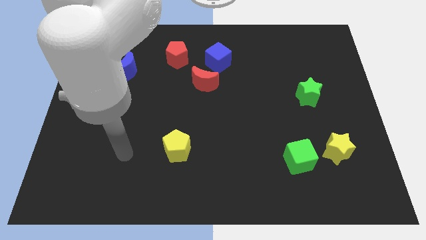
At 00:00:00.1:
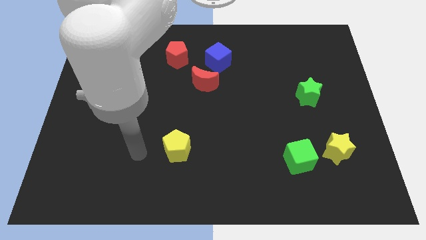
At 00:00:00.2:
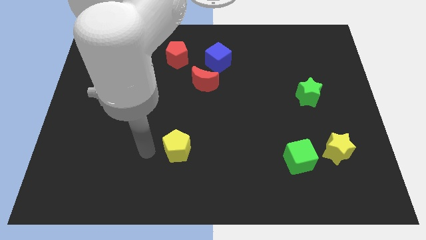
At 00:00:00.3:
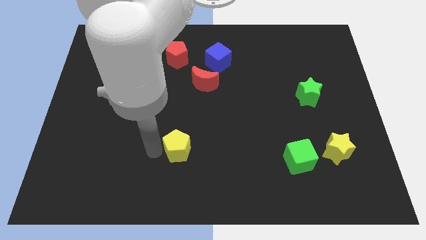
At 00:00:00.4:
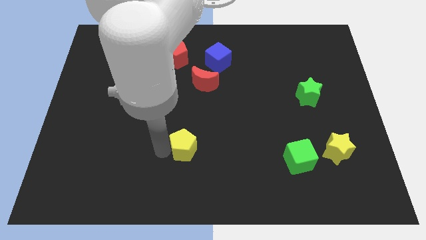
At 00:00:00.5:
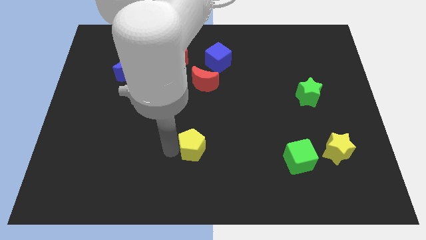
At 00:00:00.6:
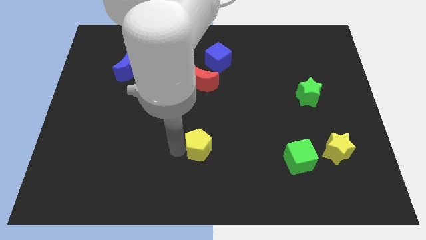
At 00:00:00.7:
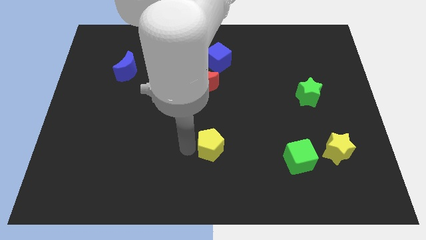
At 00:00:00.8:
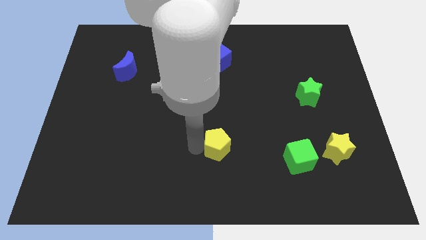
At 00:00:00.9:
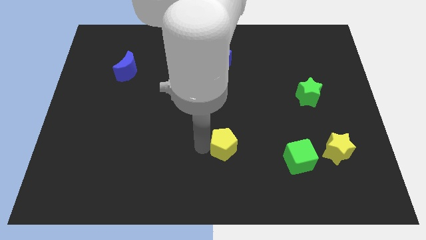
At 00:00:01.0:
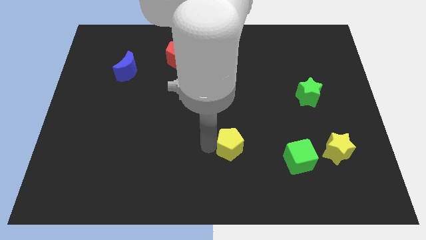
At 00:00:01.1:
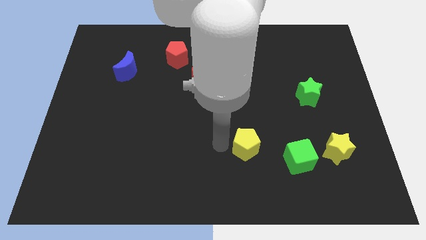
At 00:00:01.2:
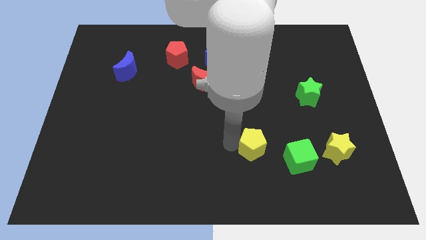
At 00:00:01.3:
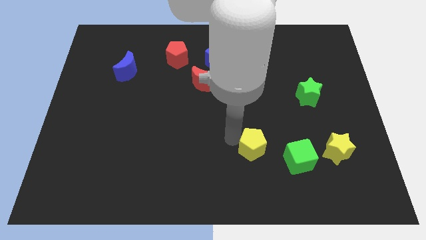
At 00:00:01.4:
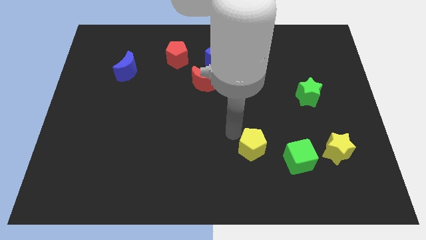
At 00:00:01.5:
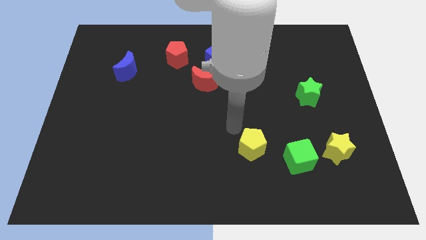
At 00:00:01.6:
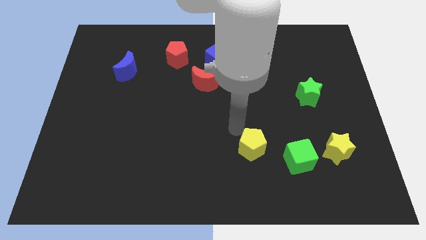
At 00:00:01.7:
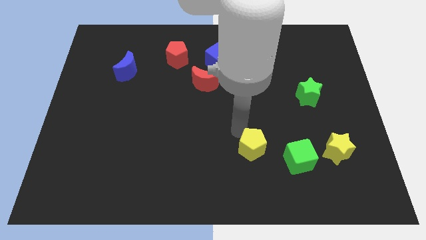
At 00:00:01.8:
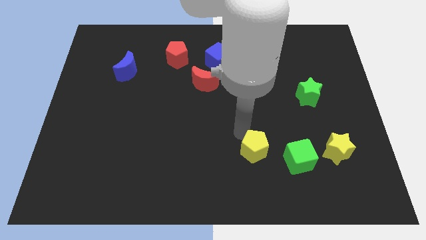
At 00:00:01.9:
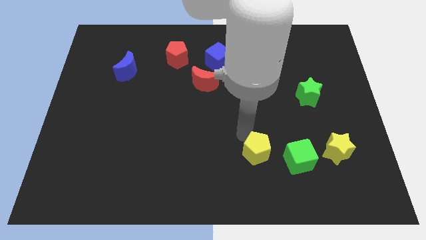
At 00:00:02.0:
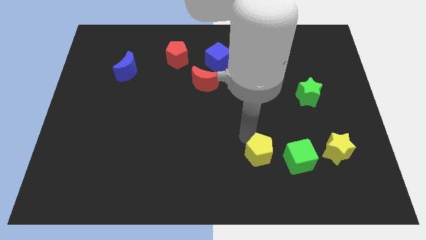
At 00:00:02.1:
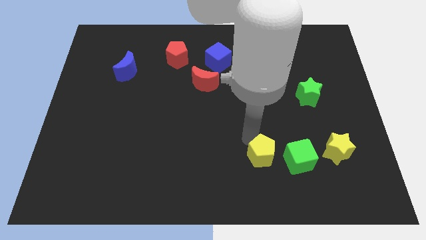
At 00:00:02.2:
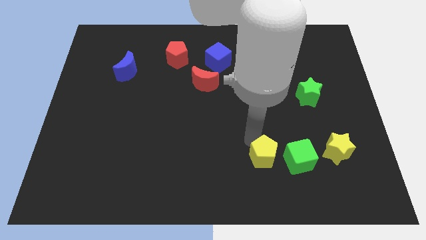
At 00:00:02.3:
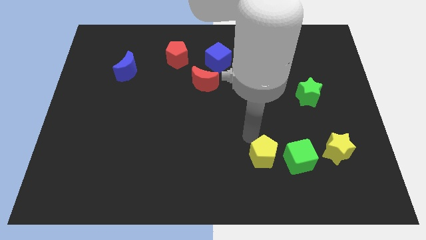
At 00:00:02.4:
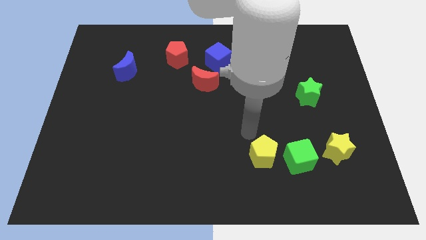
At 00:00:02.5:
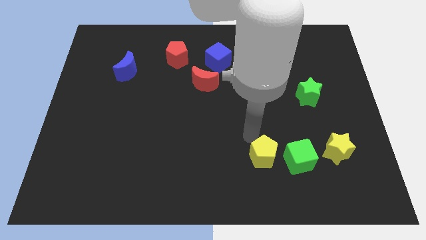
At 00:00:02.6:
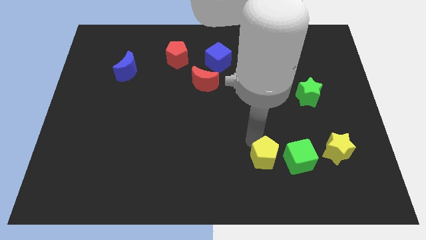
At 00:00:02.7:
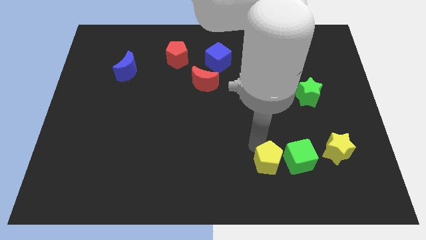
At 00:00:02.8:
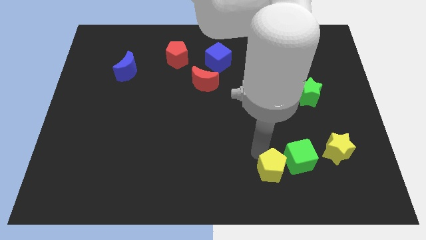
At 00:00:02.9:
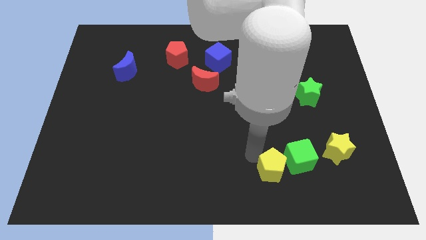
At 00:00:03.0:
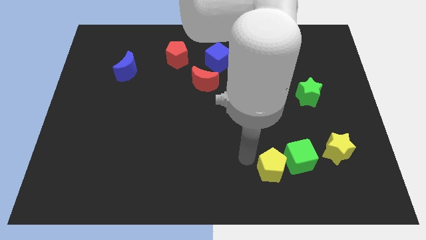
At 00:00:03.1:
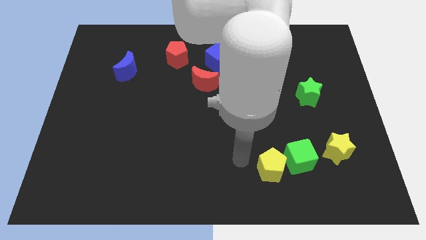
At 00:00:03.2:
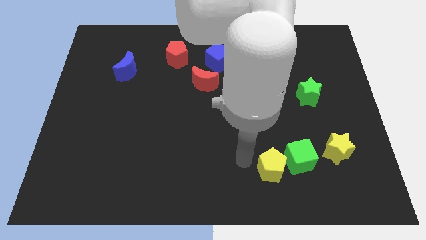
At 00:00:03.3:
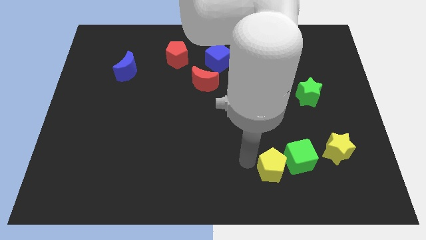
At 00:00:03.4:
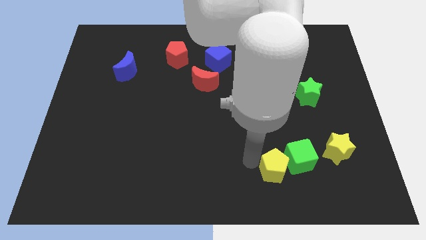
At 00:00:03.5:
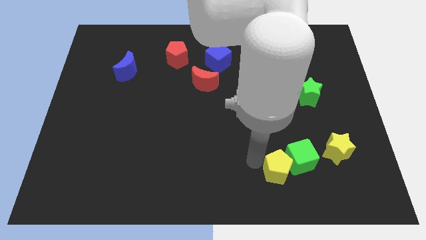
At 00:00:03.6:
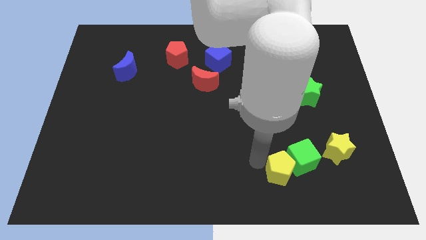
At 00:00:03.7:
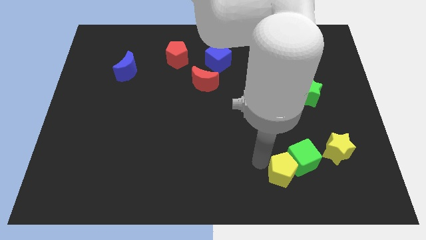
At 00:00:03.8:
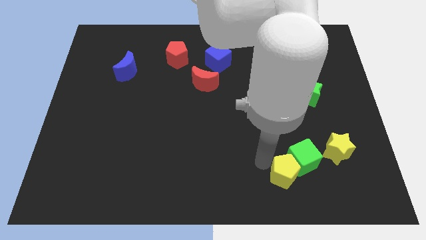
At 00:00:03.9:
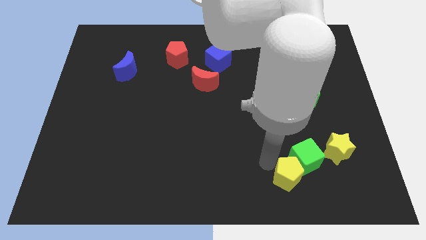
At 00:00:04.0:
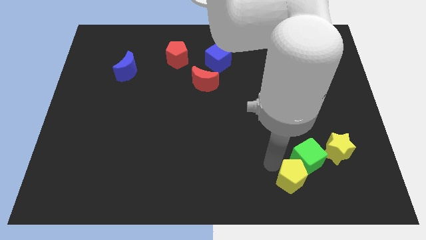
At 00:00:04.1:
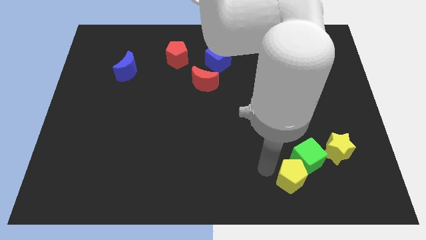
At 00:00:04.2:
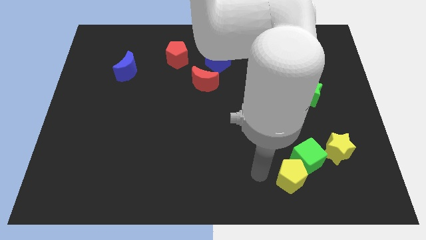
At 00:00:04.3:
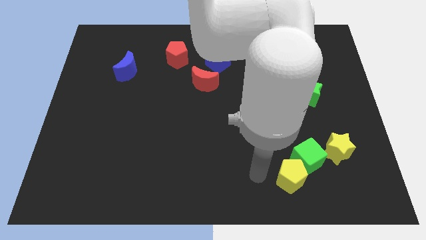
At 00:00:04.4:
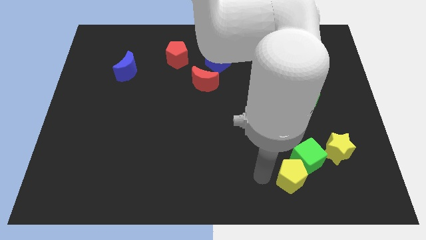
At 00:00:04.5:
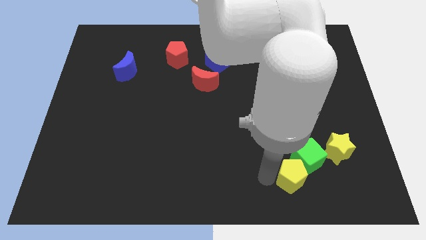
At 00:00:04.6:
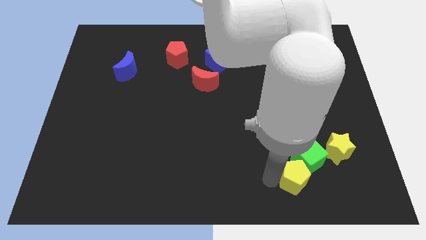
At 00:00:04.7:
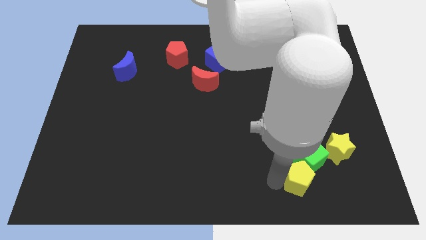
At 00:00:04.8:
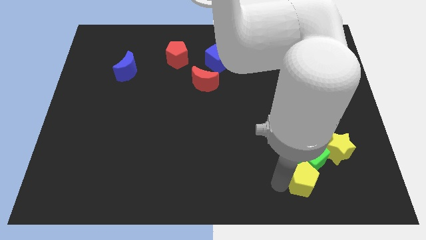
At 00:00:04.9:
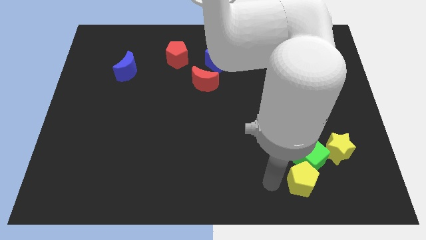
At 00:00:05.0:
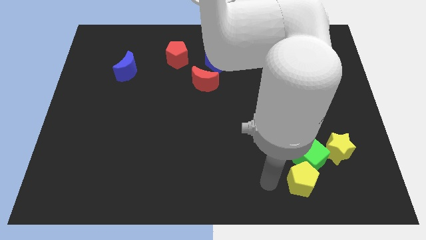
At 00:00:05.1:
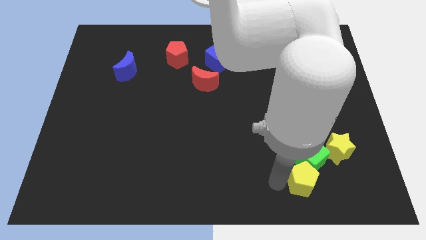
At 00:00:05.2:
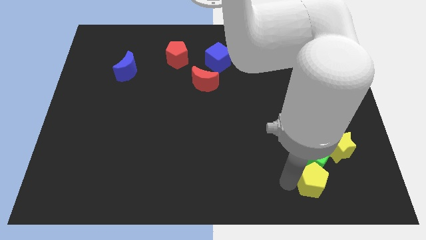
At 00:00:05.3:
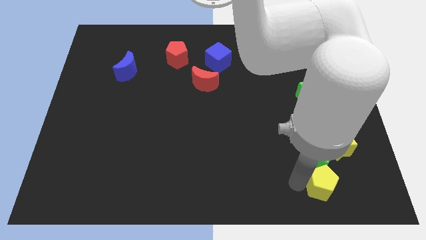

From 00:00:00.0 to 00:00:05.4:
slide the yellow pentagon to the bottom right side of the green cube

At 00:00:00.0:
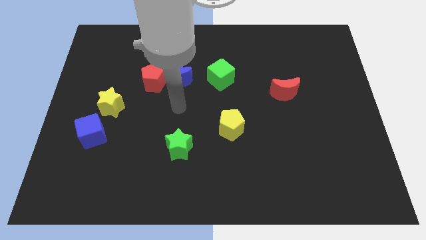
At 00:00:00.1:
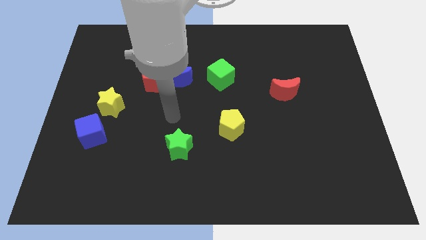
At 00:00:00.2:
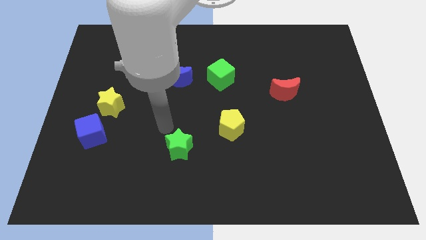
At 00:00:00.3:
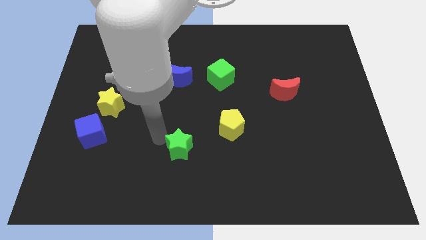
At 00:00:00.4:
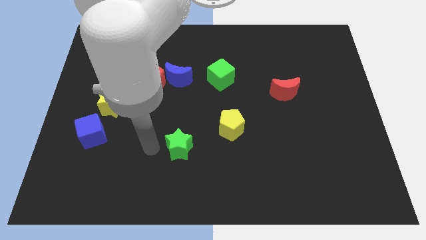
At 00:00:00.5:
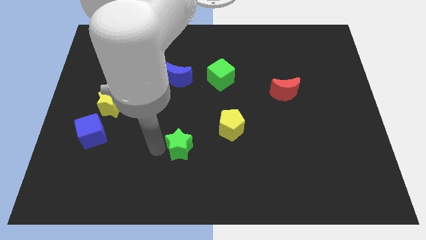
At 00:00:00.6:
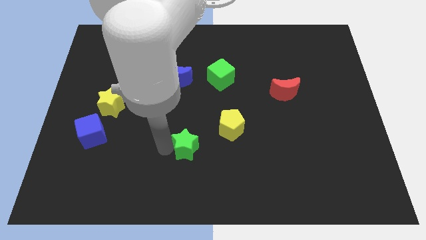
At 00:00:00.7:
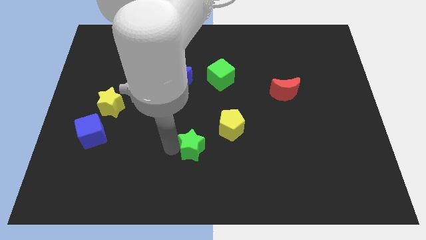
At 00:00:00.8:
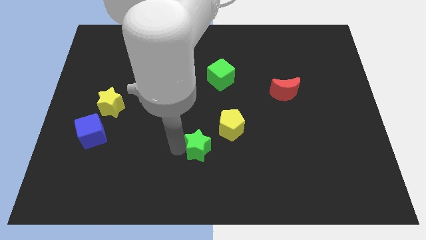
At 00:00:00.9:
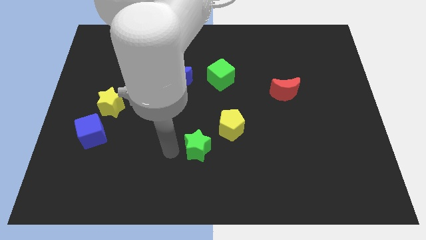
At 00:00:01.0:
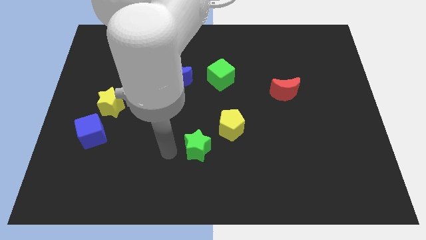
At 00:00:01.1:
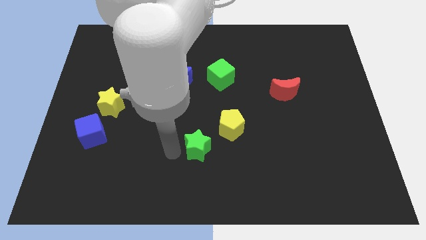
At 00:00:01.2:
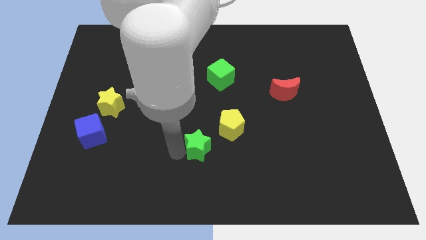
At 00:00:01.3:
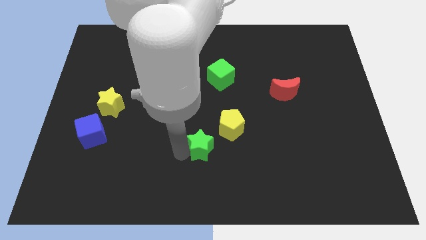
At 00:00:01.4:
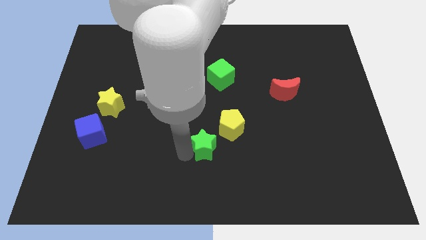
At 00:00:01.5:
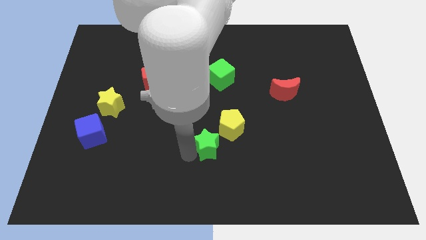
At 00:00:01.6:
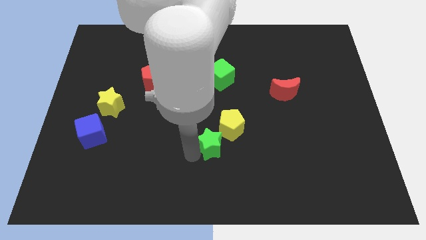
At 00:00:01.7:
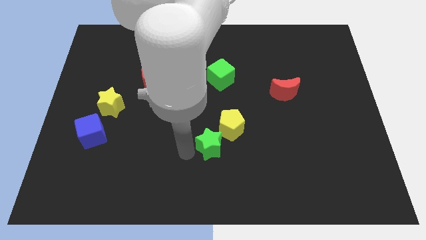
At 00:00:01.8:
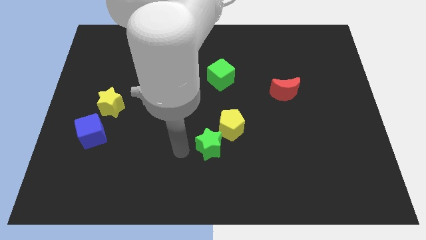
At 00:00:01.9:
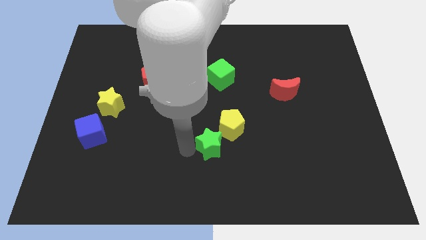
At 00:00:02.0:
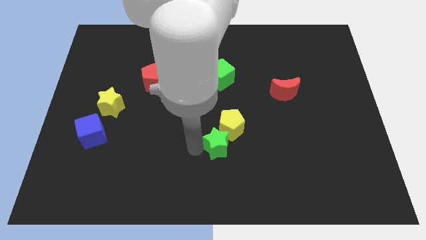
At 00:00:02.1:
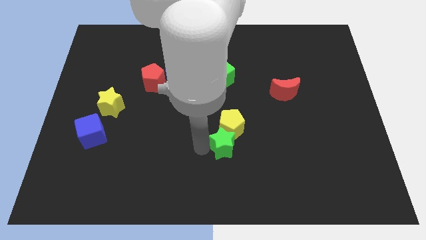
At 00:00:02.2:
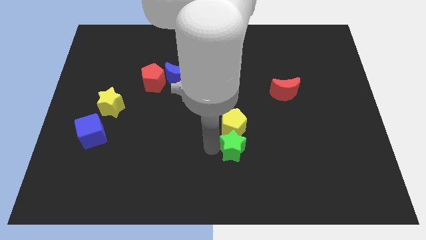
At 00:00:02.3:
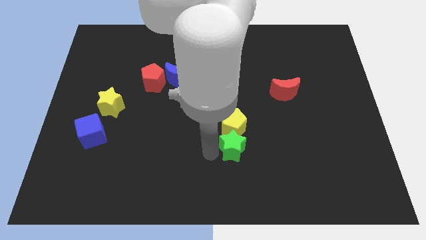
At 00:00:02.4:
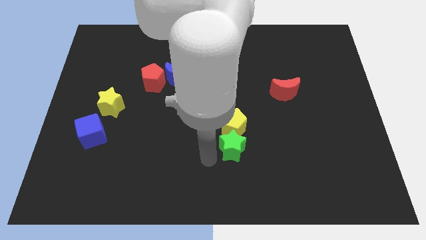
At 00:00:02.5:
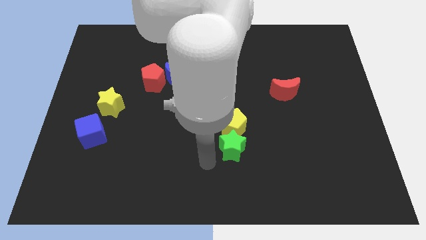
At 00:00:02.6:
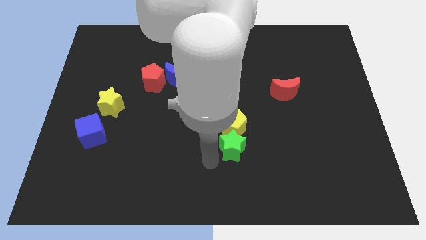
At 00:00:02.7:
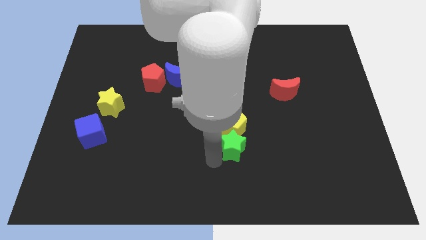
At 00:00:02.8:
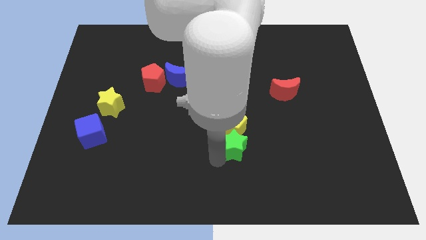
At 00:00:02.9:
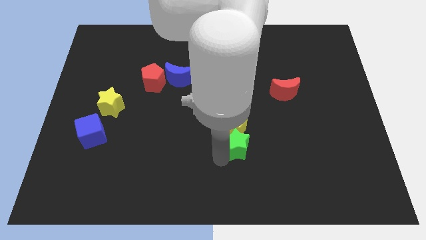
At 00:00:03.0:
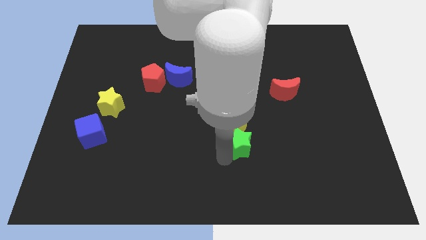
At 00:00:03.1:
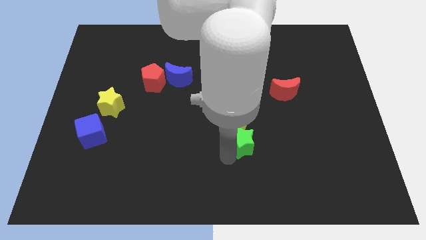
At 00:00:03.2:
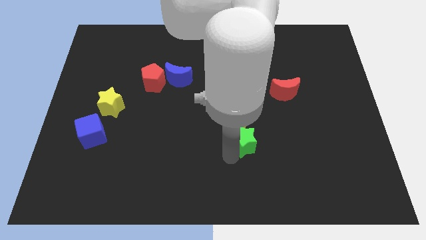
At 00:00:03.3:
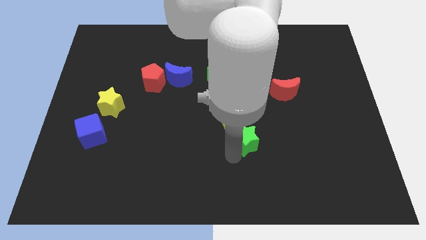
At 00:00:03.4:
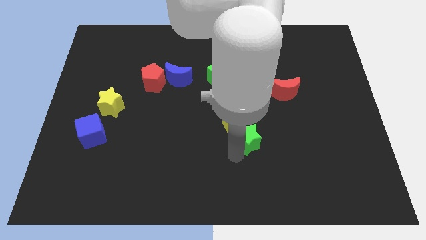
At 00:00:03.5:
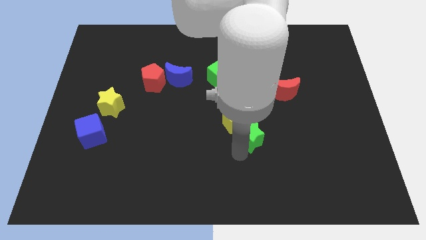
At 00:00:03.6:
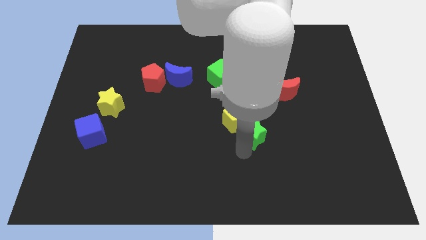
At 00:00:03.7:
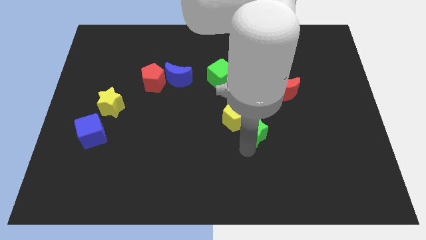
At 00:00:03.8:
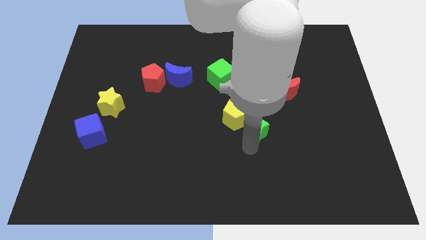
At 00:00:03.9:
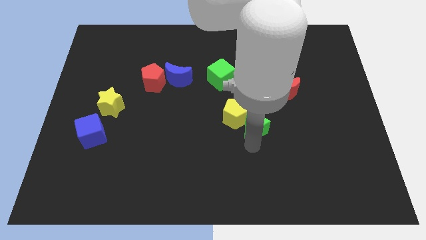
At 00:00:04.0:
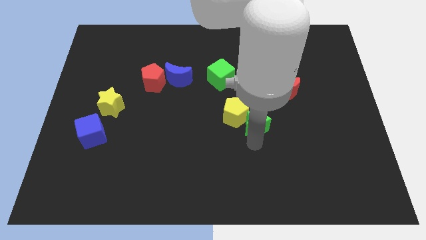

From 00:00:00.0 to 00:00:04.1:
put the green star diagonally down and to the left of the red moon
